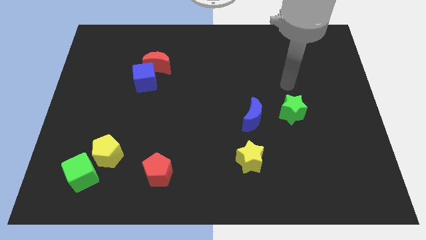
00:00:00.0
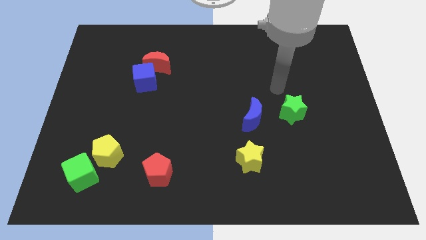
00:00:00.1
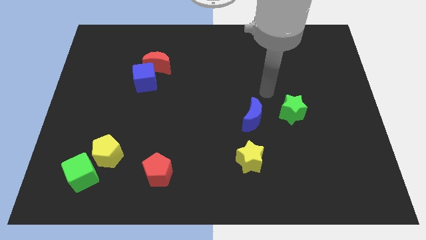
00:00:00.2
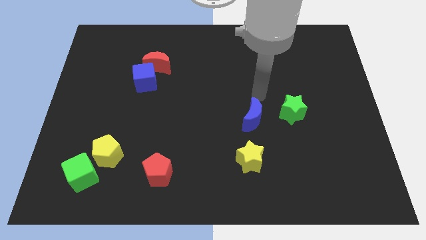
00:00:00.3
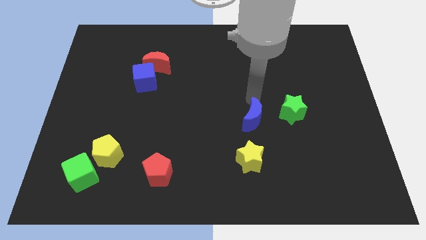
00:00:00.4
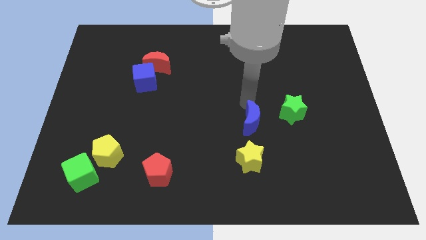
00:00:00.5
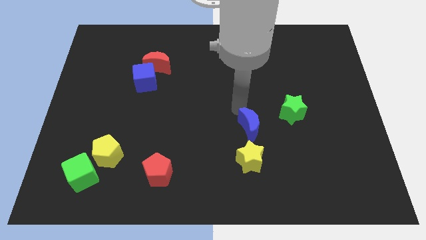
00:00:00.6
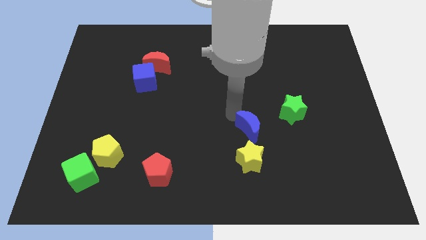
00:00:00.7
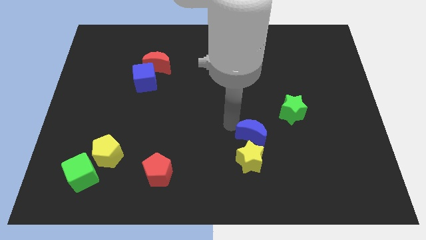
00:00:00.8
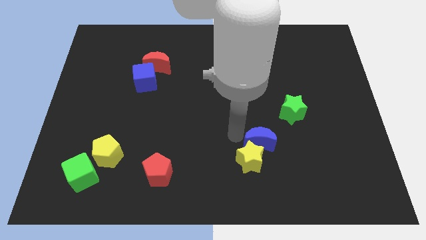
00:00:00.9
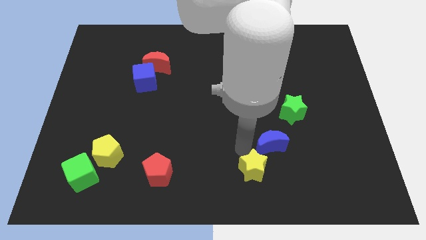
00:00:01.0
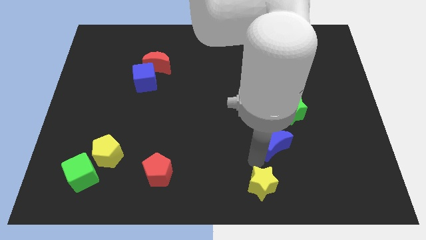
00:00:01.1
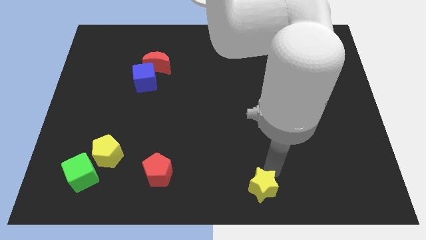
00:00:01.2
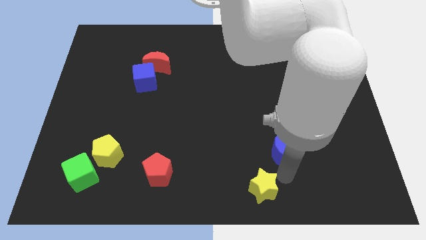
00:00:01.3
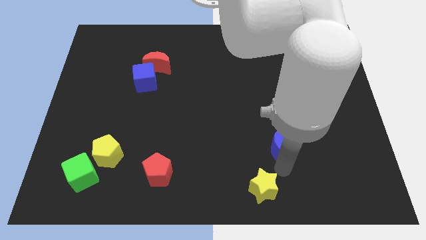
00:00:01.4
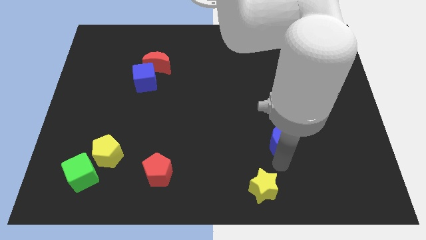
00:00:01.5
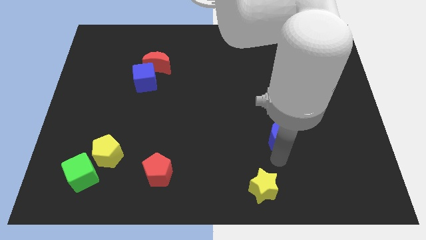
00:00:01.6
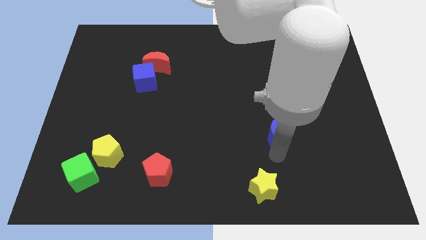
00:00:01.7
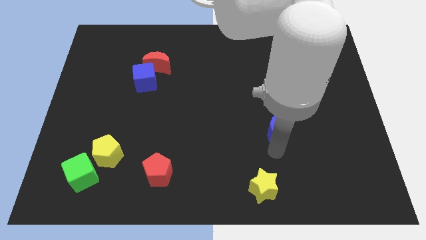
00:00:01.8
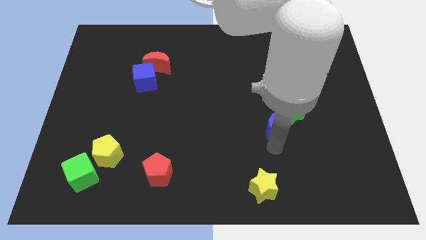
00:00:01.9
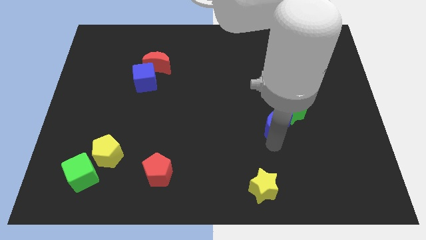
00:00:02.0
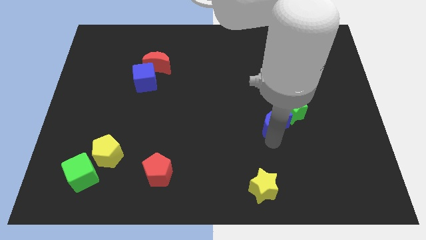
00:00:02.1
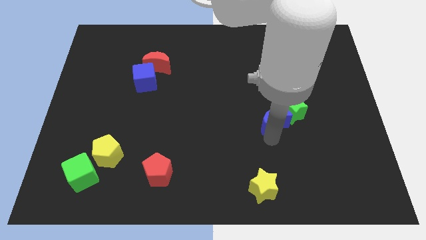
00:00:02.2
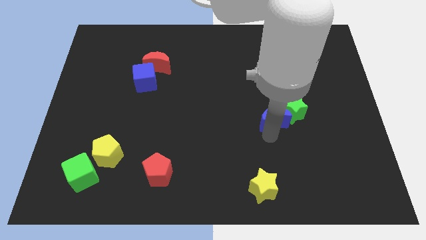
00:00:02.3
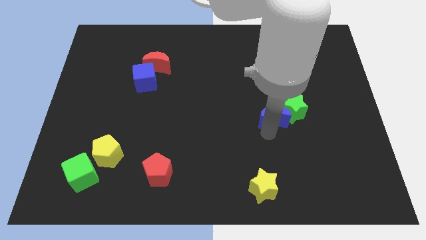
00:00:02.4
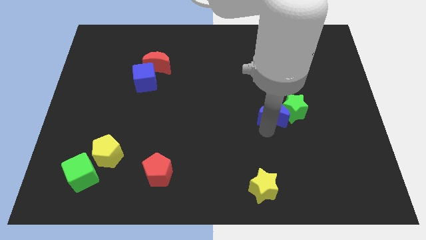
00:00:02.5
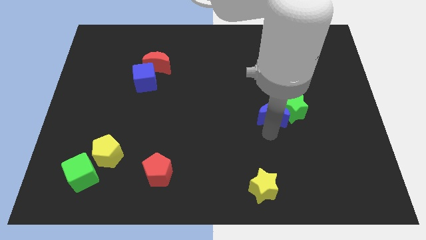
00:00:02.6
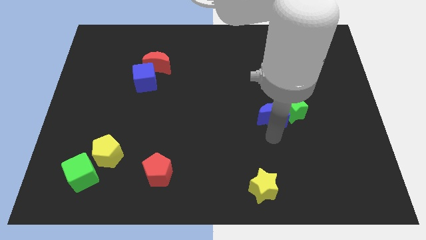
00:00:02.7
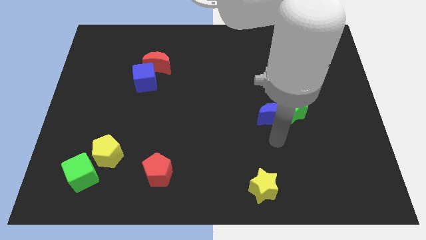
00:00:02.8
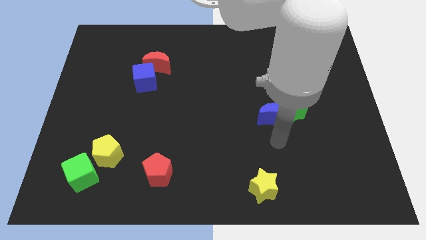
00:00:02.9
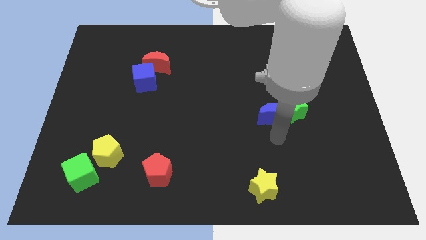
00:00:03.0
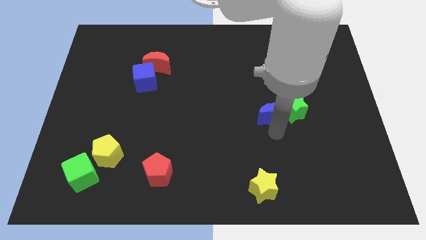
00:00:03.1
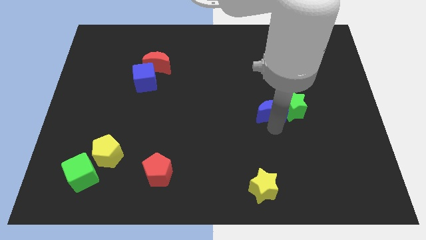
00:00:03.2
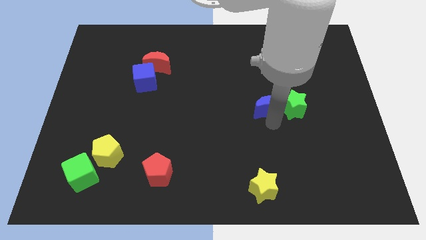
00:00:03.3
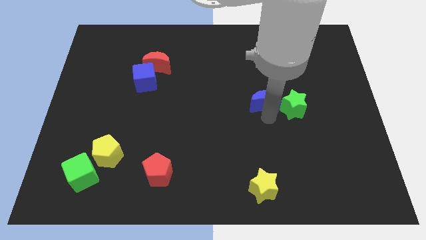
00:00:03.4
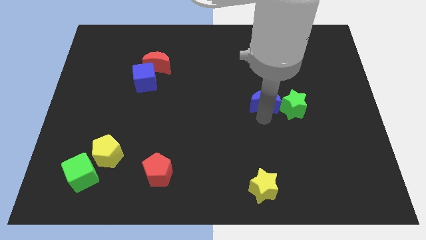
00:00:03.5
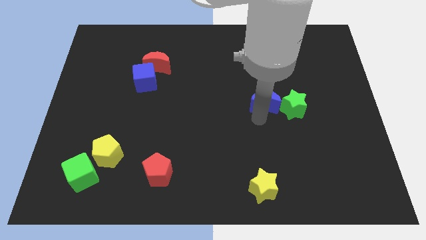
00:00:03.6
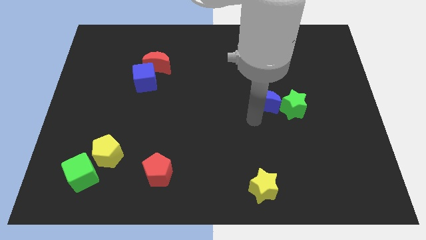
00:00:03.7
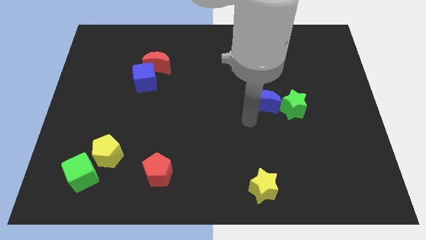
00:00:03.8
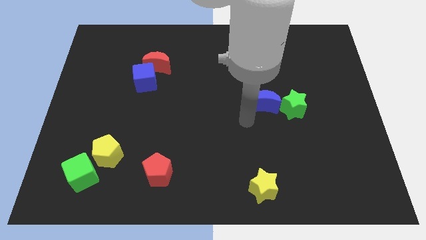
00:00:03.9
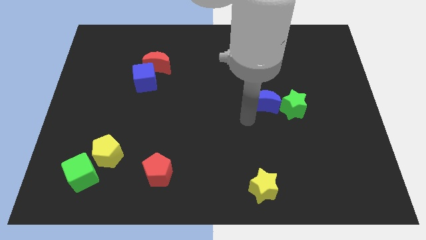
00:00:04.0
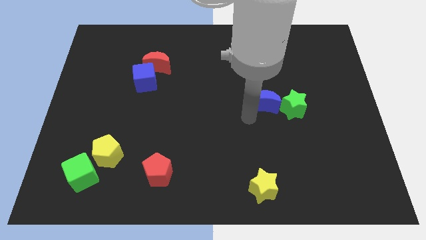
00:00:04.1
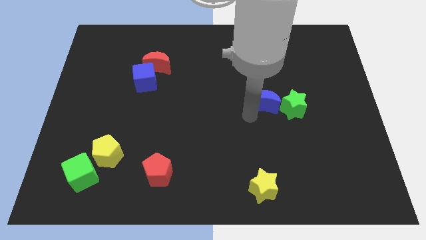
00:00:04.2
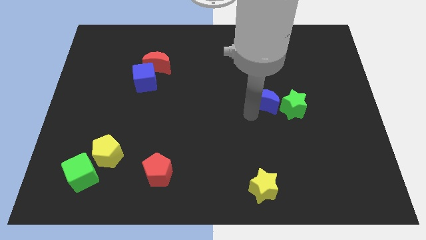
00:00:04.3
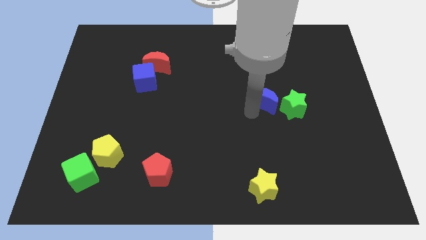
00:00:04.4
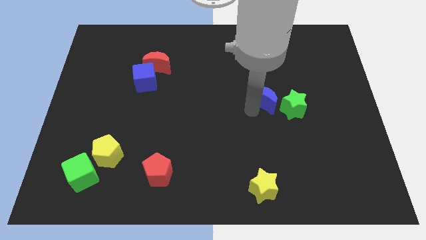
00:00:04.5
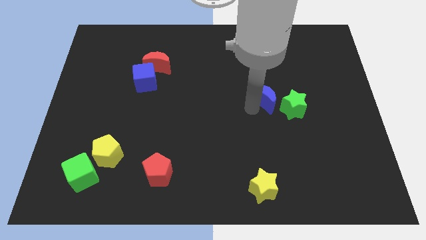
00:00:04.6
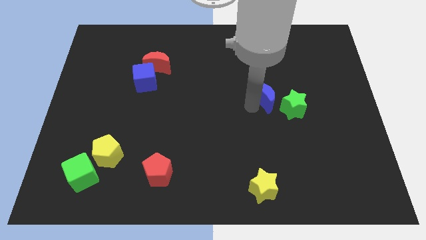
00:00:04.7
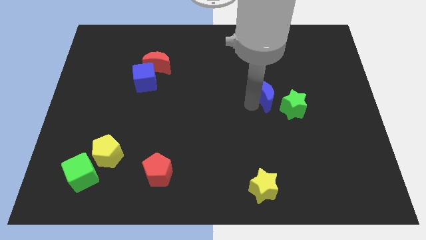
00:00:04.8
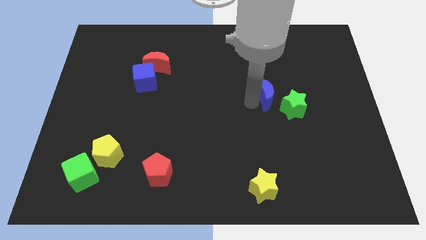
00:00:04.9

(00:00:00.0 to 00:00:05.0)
slide the blue moon a bit up and right diagonally

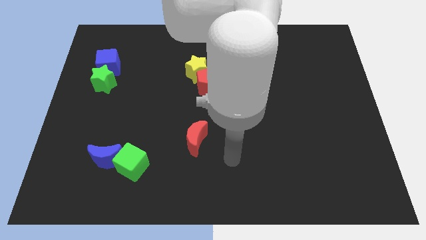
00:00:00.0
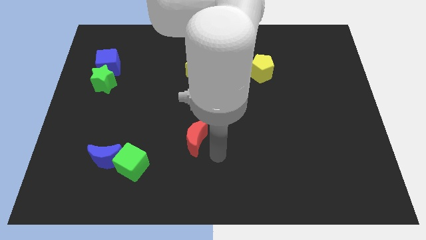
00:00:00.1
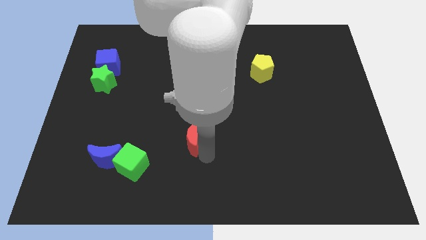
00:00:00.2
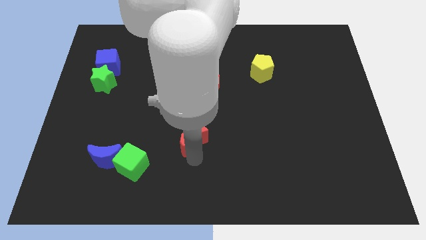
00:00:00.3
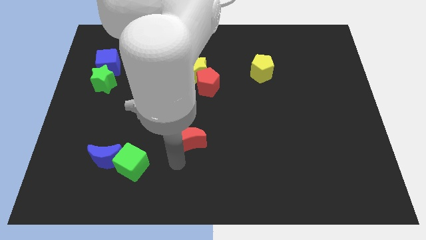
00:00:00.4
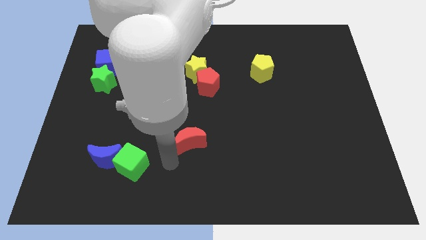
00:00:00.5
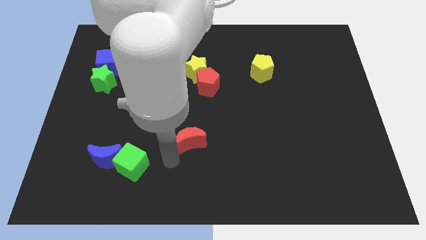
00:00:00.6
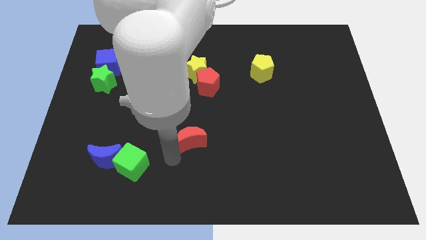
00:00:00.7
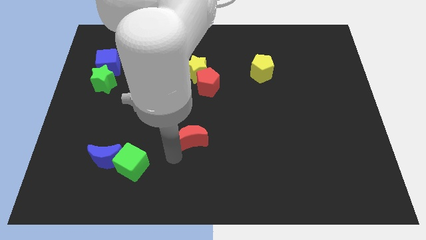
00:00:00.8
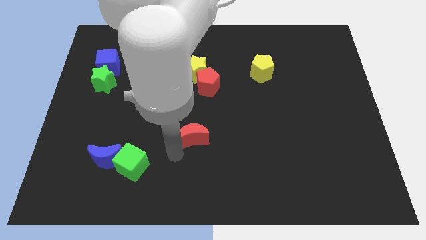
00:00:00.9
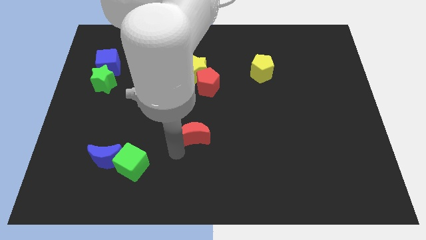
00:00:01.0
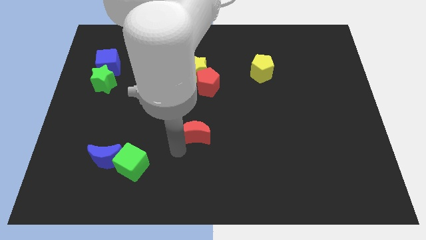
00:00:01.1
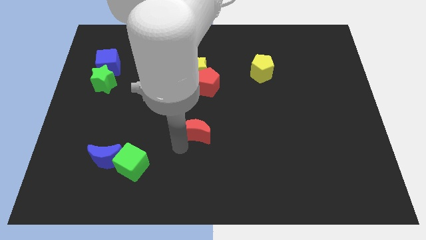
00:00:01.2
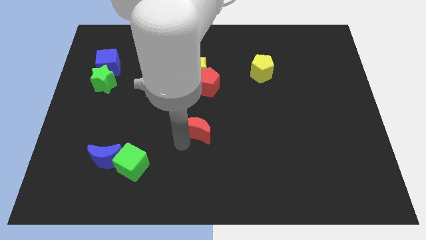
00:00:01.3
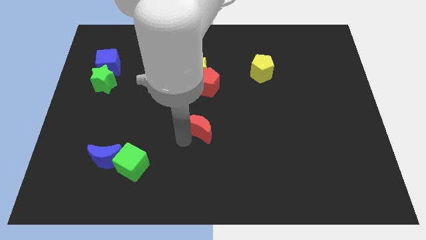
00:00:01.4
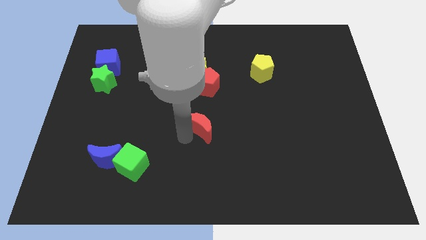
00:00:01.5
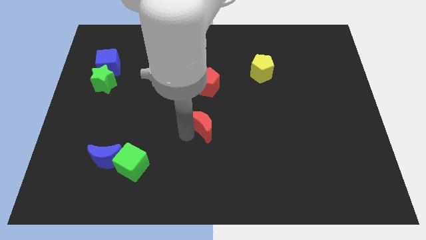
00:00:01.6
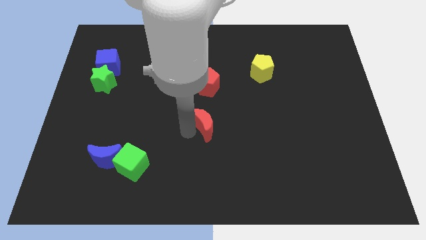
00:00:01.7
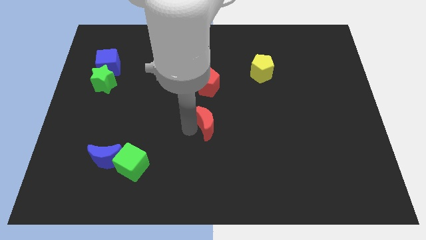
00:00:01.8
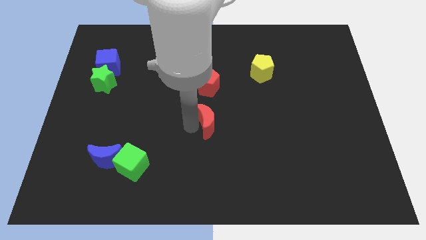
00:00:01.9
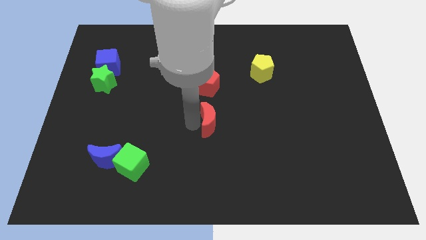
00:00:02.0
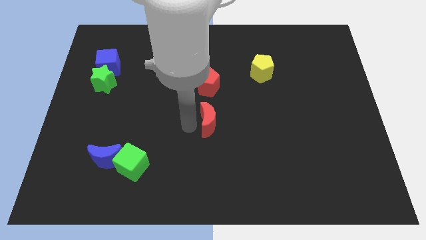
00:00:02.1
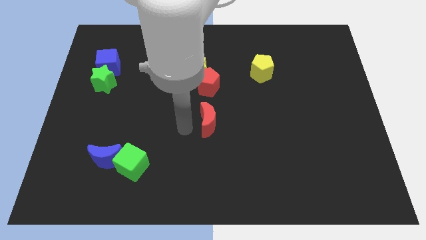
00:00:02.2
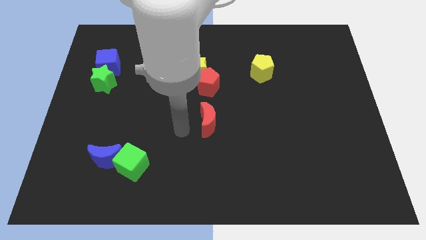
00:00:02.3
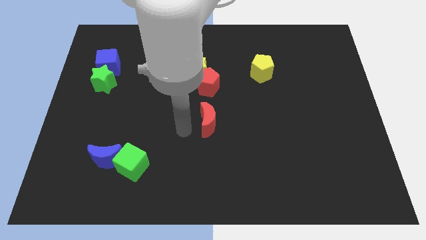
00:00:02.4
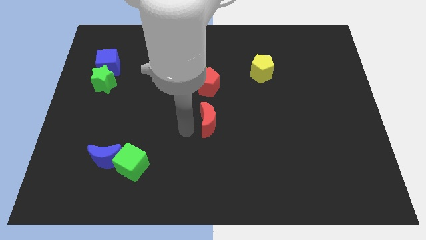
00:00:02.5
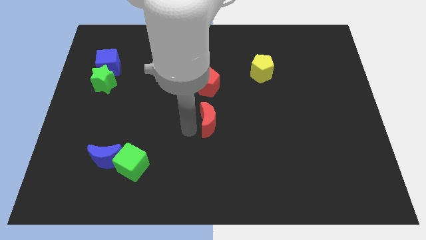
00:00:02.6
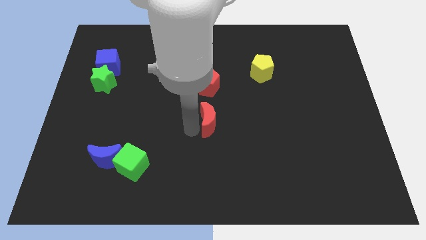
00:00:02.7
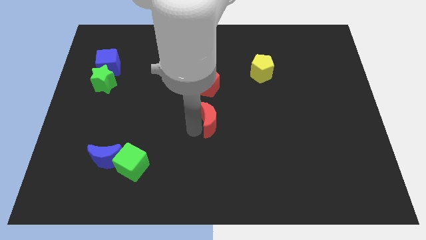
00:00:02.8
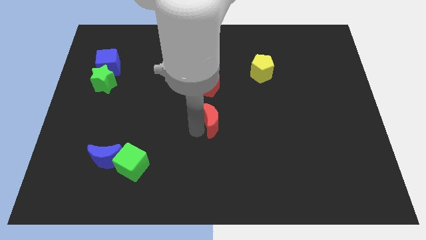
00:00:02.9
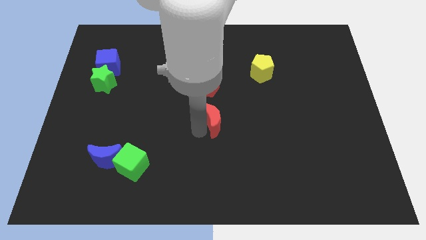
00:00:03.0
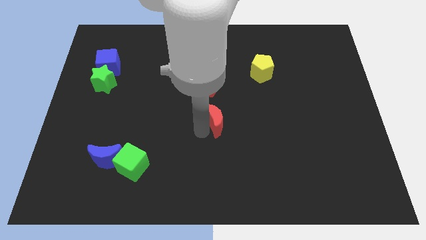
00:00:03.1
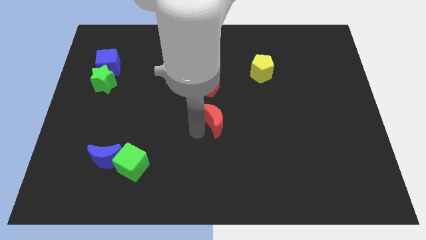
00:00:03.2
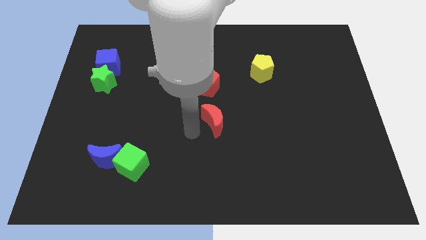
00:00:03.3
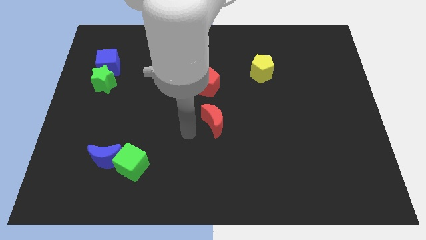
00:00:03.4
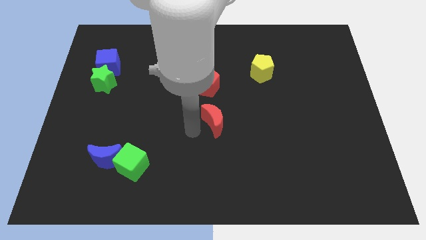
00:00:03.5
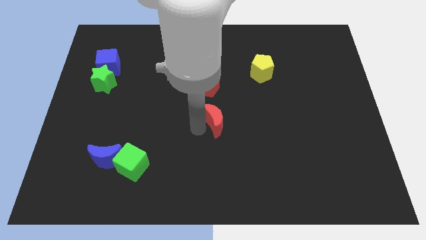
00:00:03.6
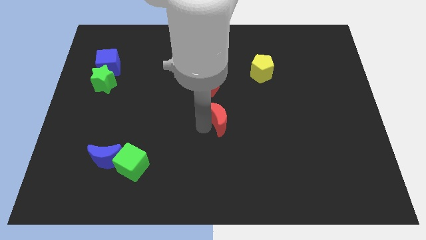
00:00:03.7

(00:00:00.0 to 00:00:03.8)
slide the red moon a bit upwards and then to the right
